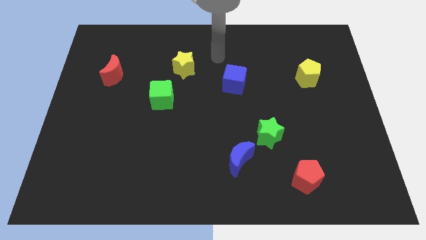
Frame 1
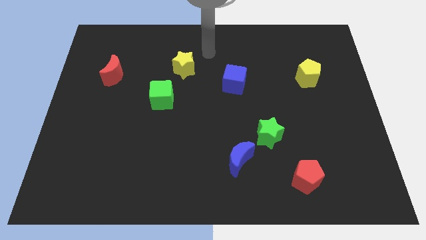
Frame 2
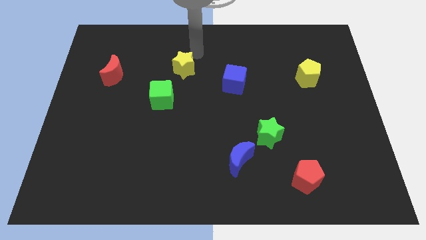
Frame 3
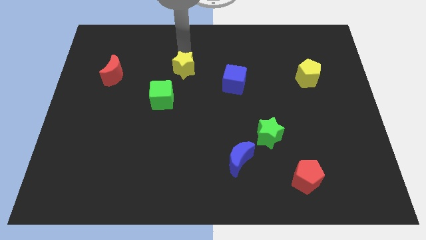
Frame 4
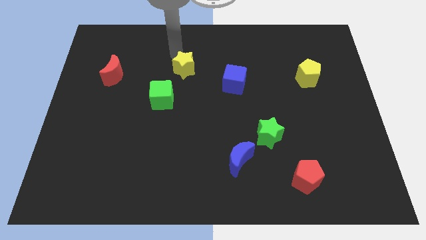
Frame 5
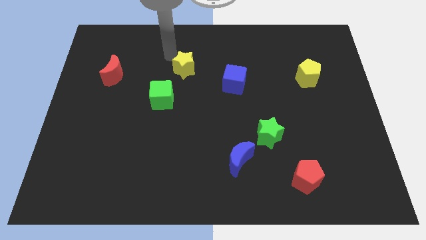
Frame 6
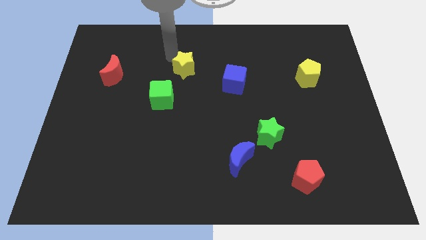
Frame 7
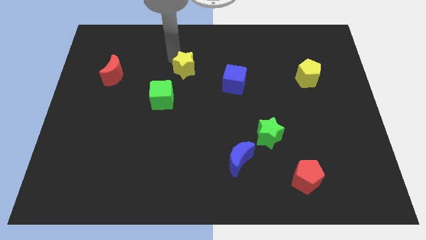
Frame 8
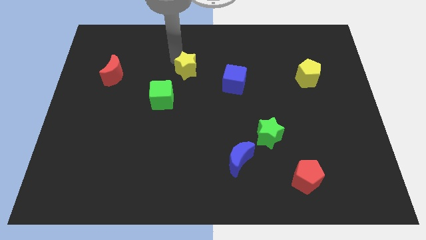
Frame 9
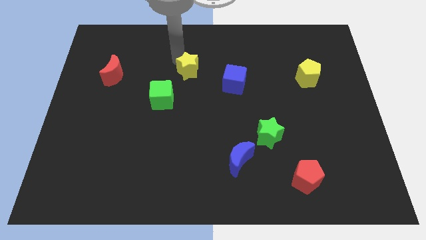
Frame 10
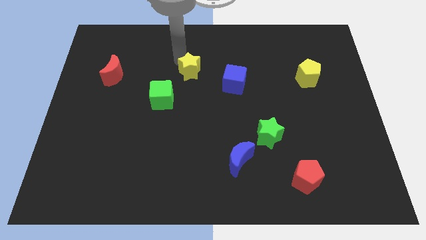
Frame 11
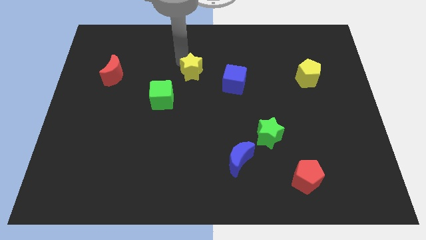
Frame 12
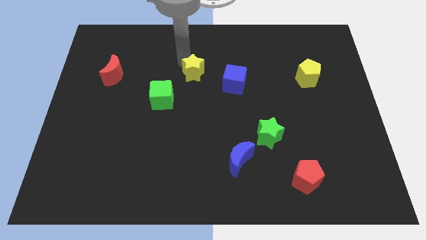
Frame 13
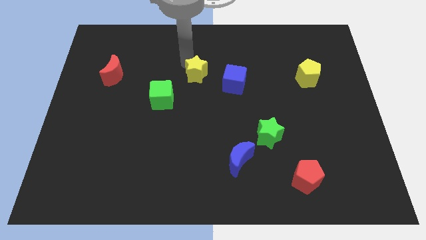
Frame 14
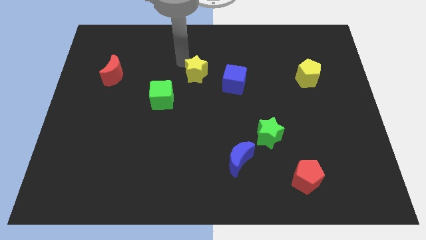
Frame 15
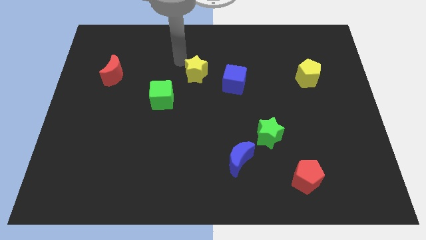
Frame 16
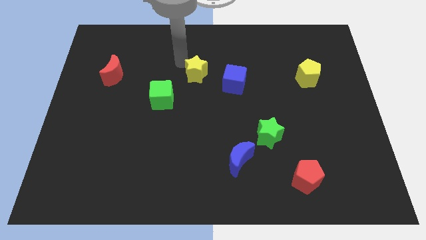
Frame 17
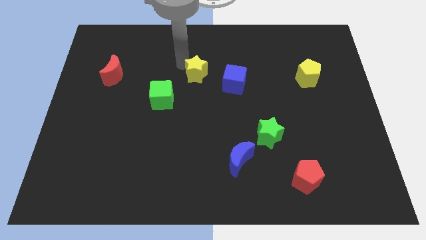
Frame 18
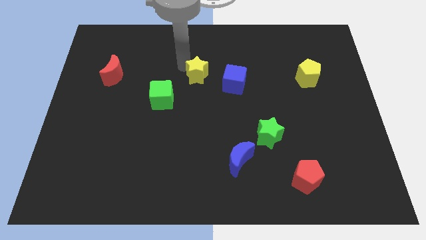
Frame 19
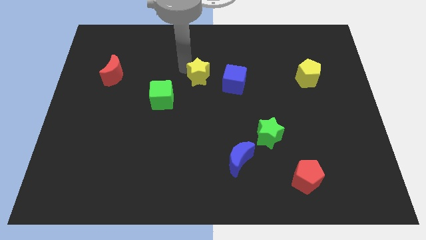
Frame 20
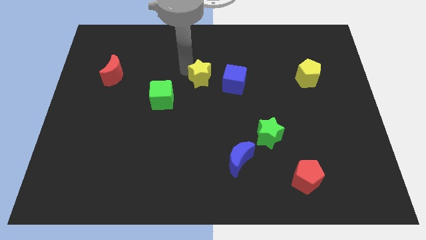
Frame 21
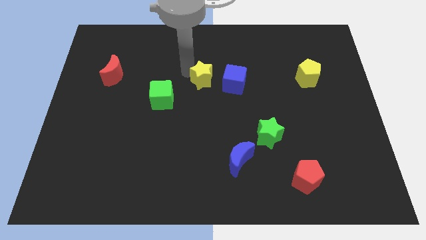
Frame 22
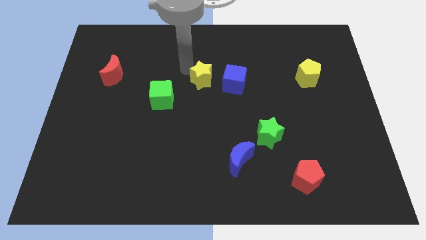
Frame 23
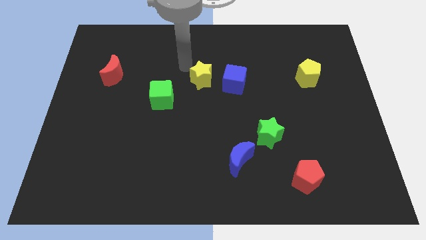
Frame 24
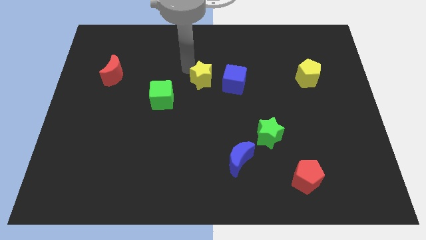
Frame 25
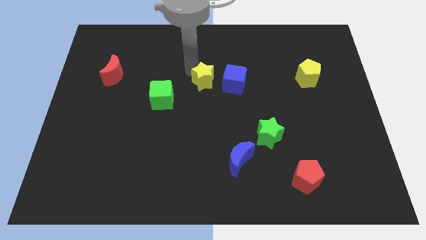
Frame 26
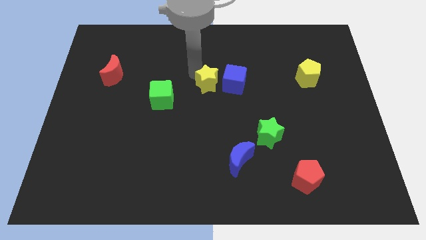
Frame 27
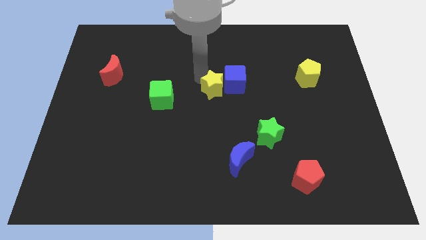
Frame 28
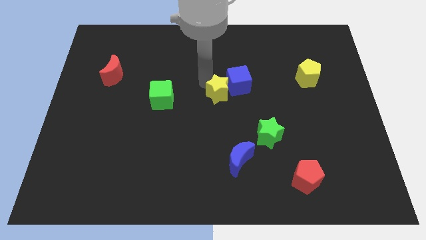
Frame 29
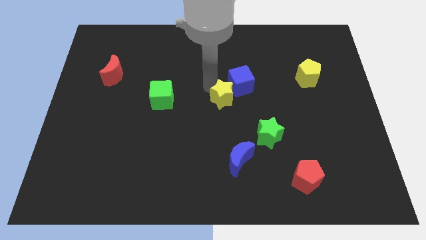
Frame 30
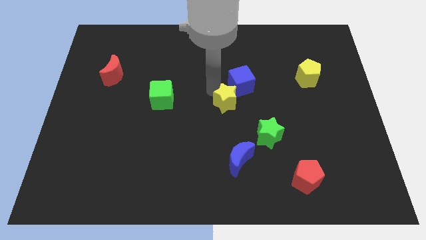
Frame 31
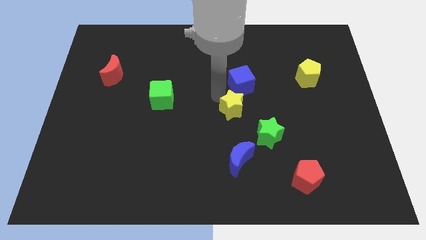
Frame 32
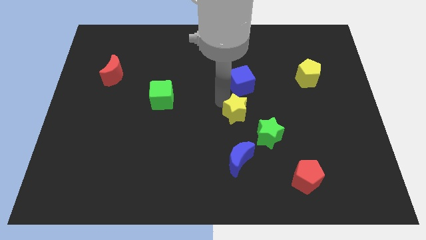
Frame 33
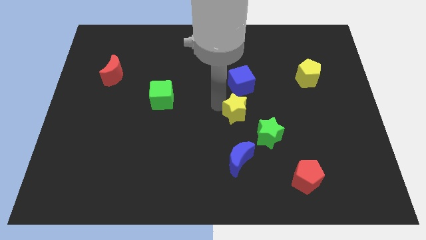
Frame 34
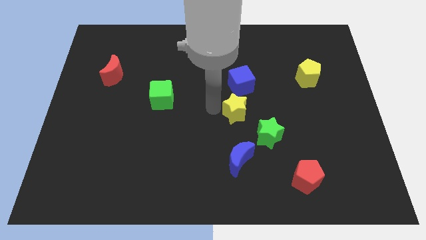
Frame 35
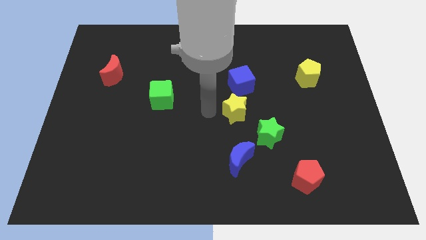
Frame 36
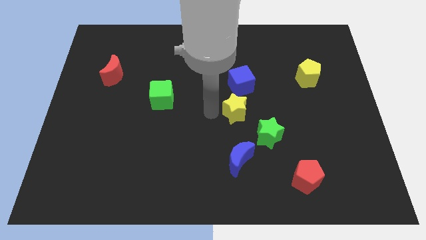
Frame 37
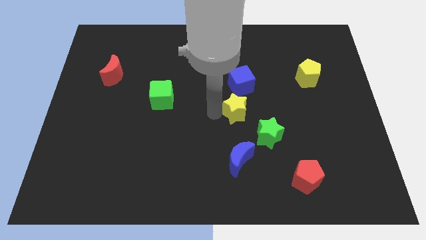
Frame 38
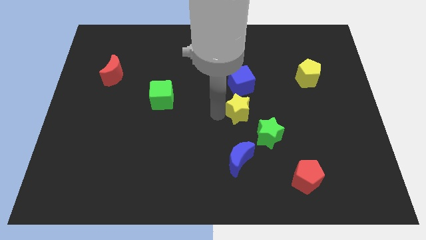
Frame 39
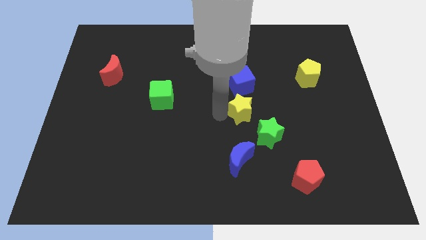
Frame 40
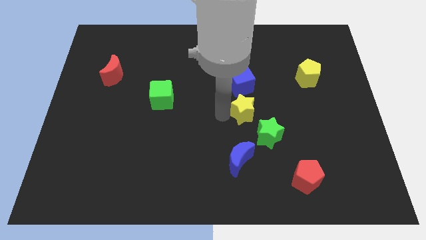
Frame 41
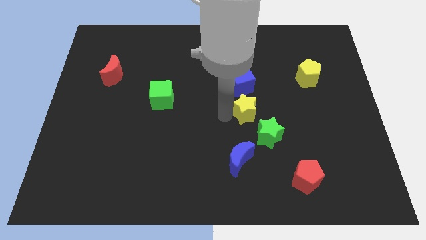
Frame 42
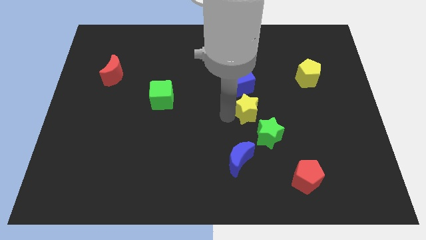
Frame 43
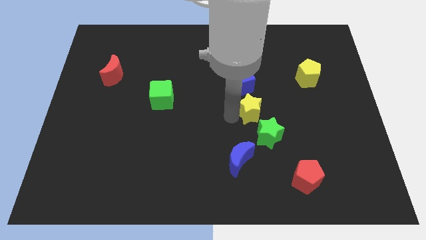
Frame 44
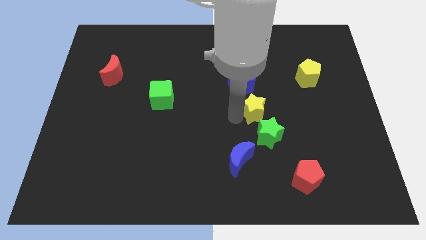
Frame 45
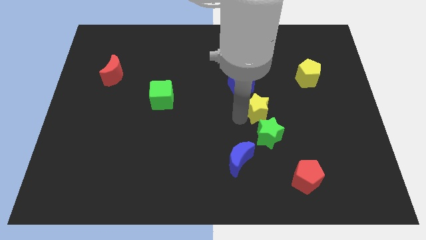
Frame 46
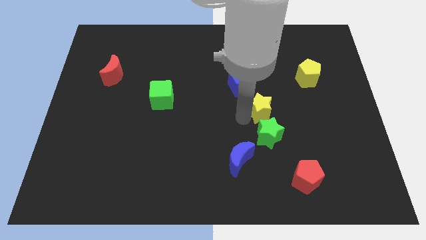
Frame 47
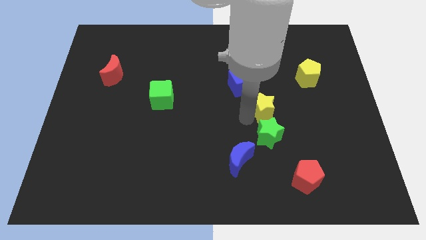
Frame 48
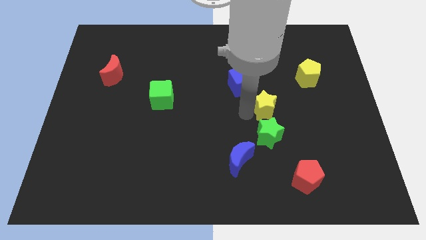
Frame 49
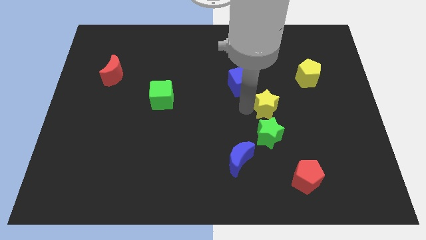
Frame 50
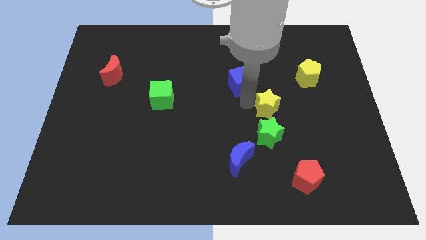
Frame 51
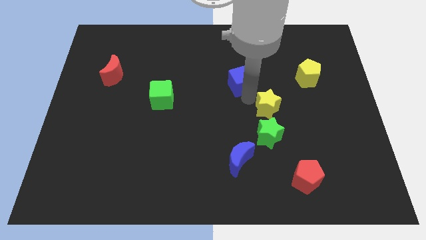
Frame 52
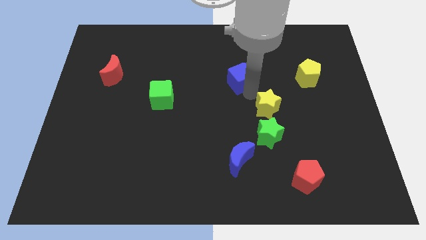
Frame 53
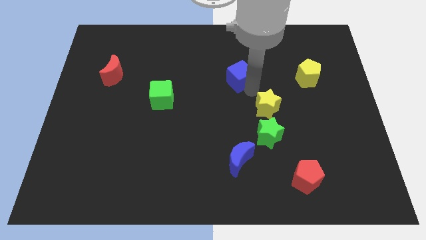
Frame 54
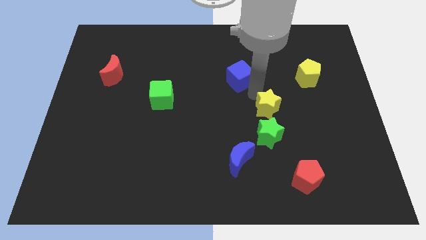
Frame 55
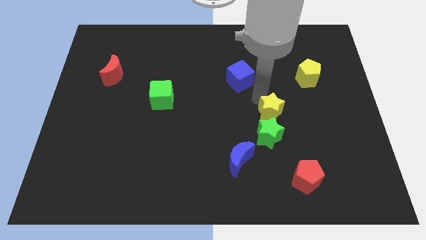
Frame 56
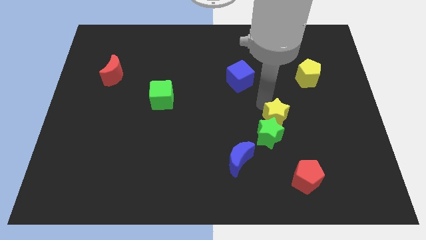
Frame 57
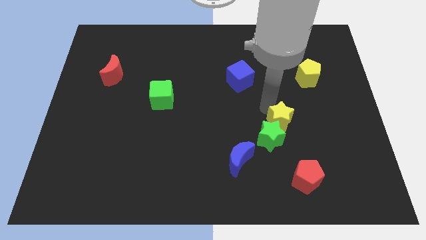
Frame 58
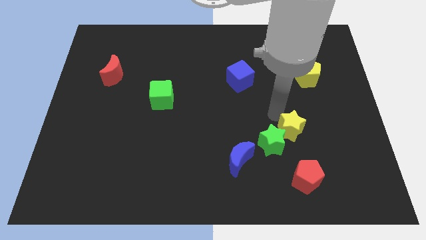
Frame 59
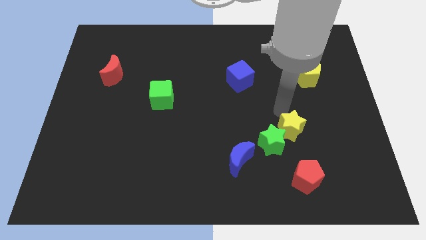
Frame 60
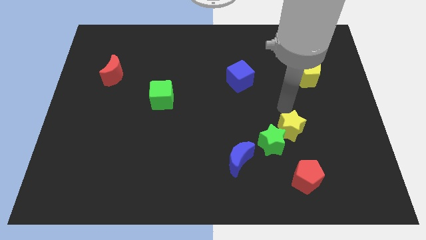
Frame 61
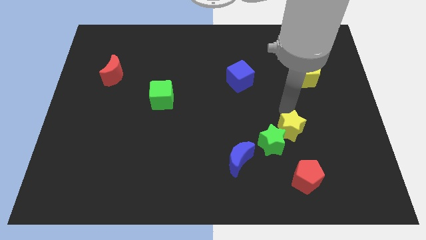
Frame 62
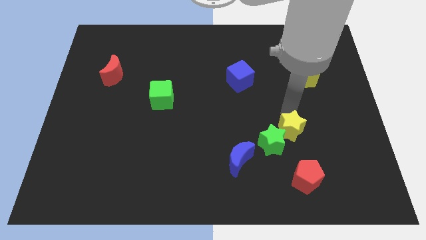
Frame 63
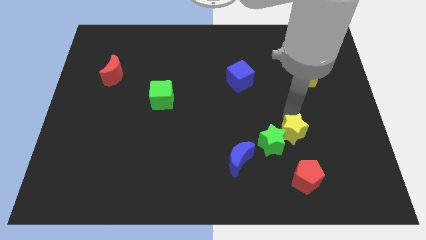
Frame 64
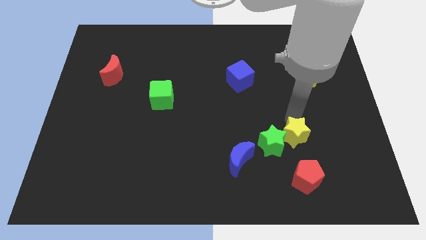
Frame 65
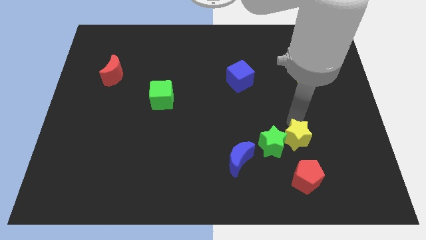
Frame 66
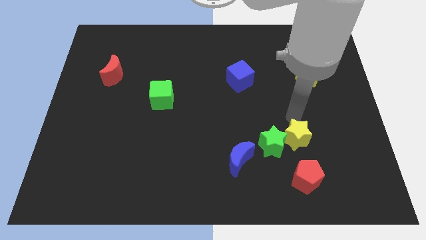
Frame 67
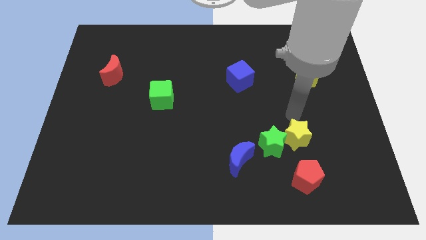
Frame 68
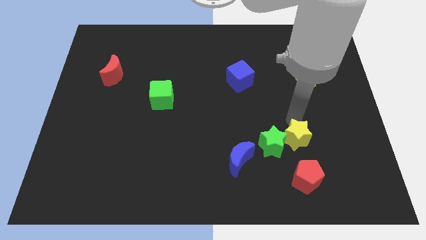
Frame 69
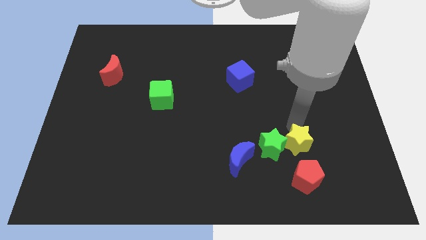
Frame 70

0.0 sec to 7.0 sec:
push the yellow star to the bottom right side of the green star

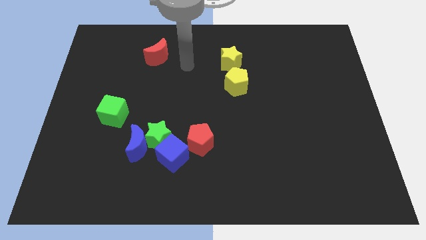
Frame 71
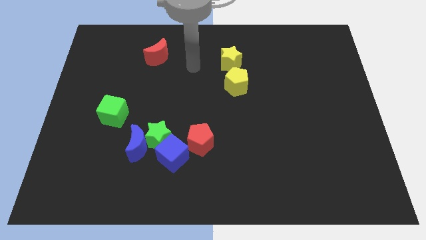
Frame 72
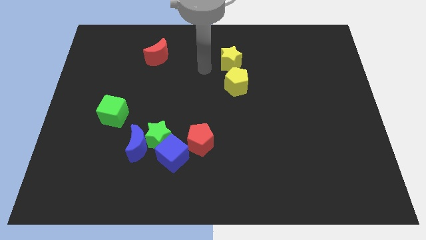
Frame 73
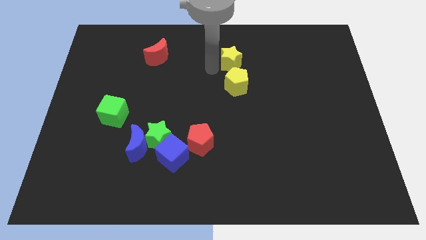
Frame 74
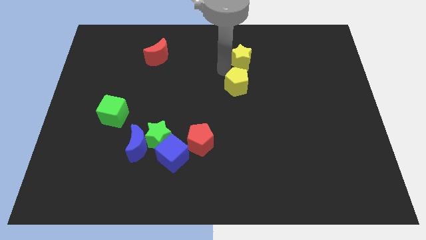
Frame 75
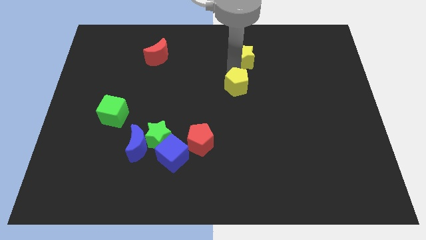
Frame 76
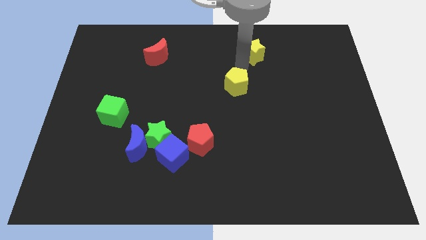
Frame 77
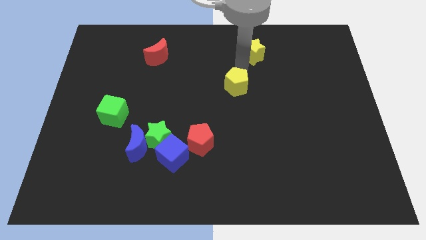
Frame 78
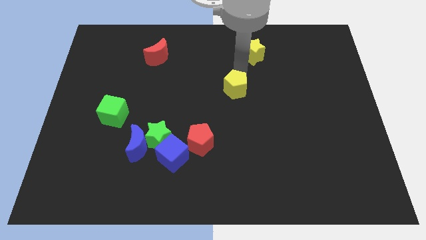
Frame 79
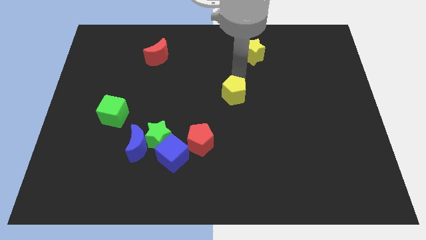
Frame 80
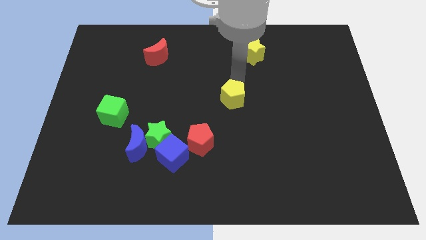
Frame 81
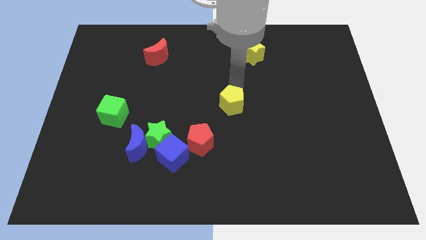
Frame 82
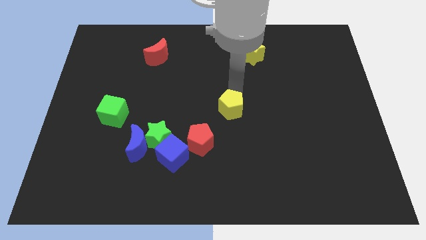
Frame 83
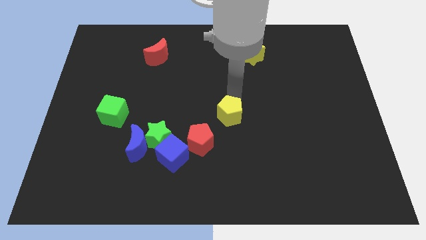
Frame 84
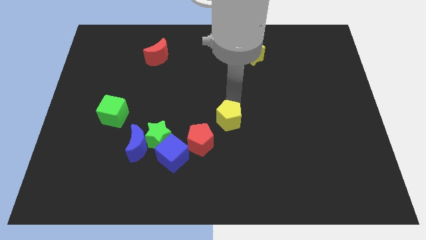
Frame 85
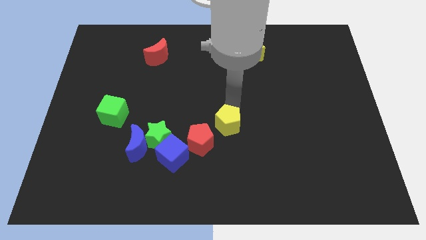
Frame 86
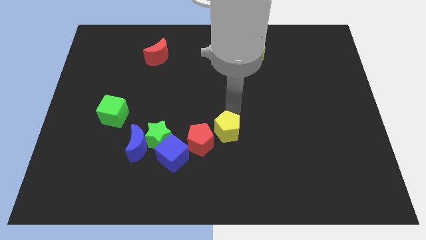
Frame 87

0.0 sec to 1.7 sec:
push the yellow pentagon to the right side of the green star
